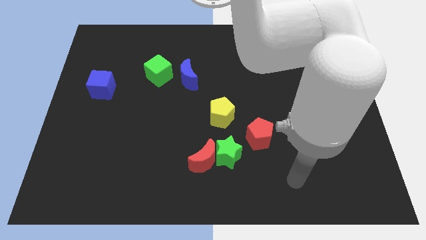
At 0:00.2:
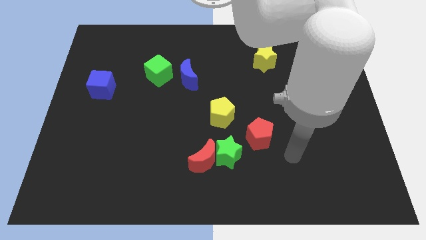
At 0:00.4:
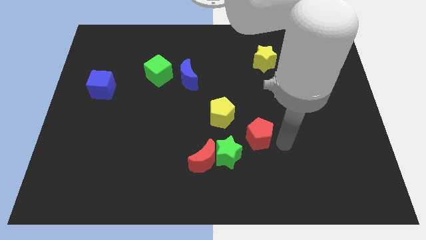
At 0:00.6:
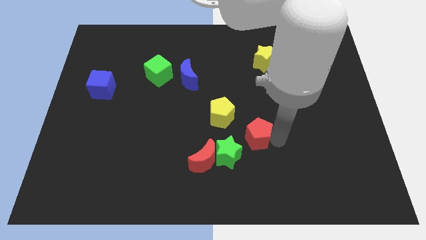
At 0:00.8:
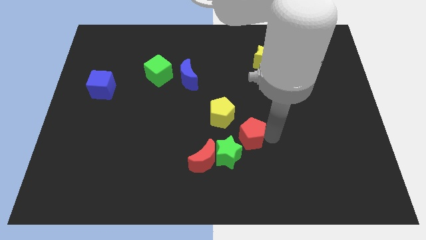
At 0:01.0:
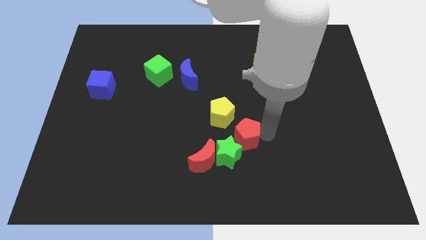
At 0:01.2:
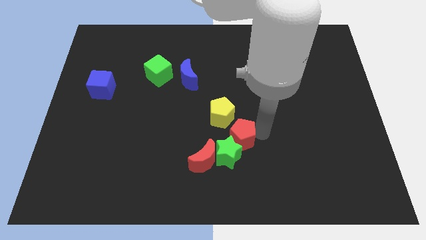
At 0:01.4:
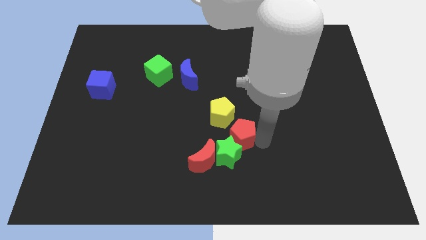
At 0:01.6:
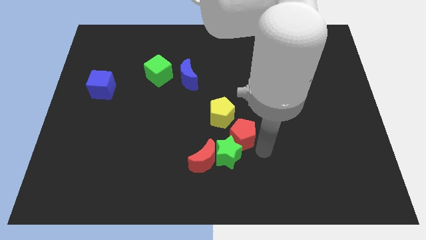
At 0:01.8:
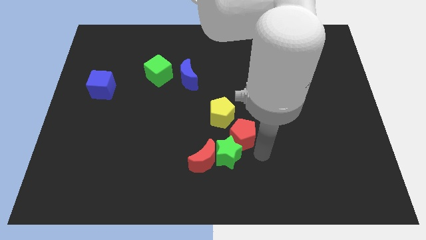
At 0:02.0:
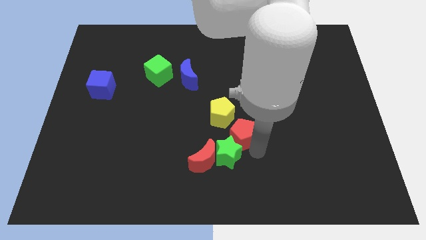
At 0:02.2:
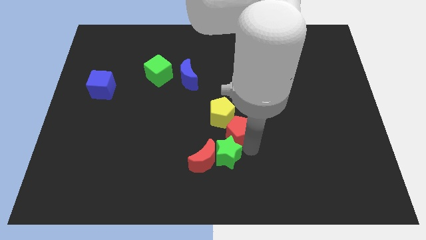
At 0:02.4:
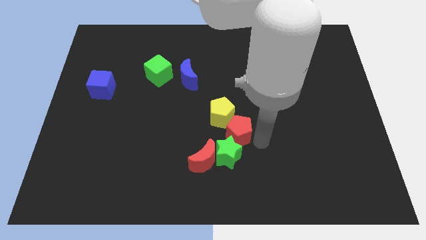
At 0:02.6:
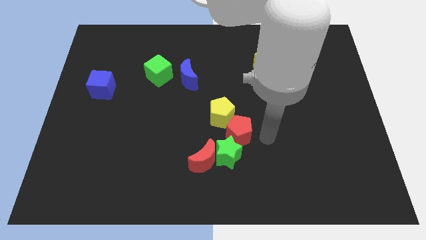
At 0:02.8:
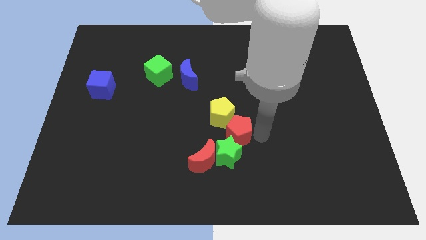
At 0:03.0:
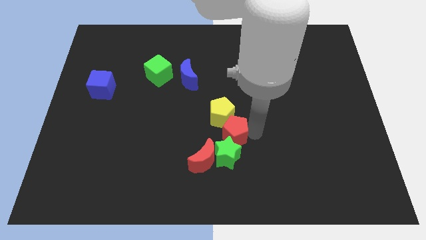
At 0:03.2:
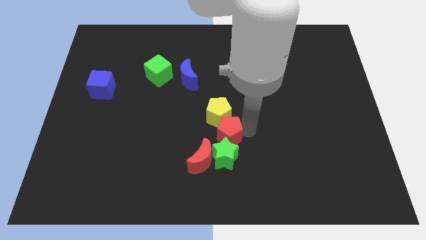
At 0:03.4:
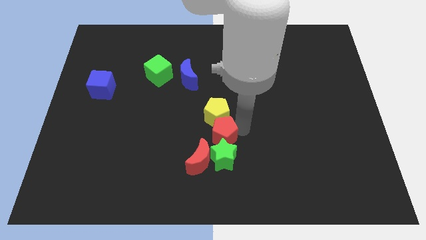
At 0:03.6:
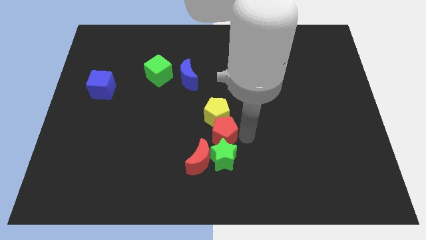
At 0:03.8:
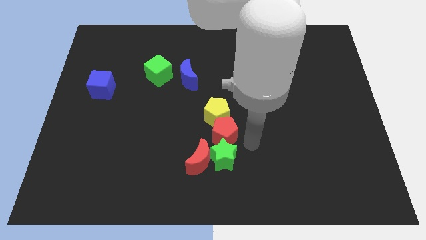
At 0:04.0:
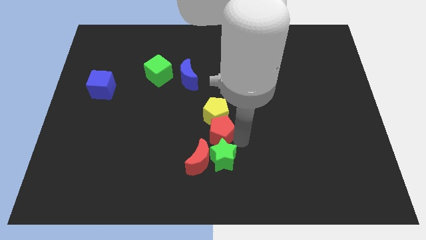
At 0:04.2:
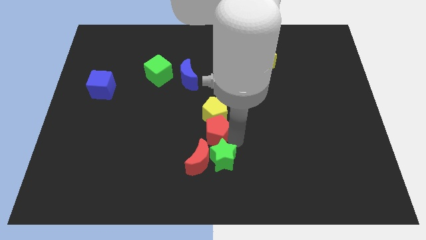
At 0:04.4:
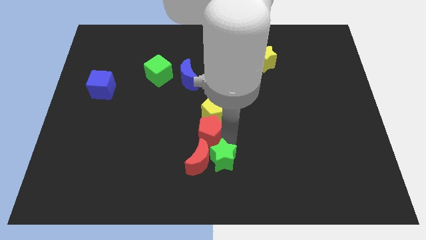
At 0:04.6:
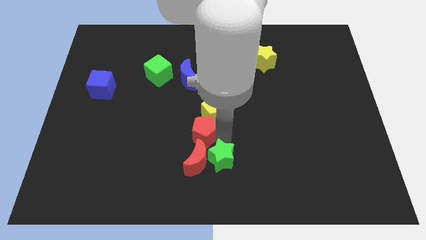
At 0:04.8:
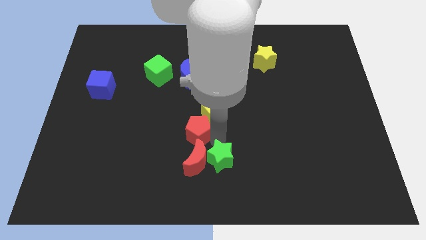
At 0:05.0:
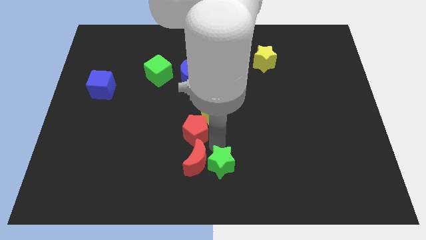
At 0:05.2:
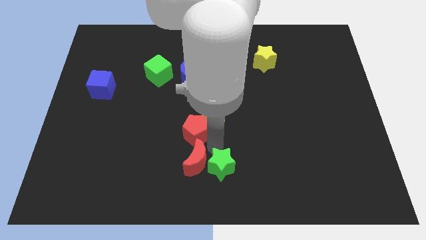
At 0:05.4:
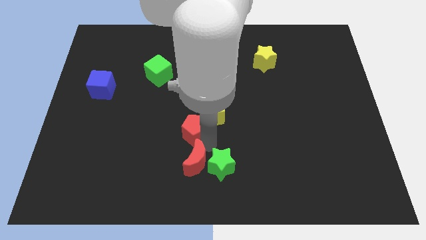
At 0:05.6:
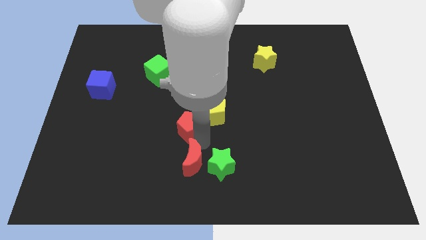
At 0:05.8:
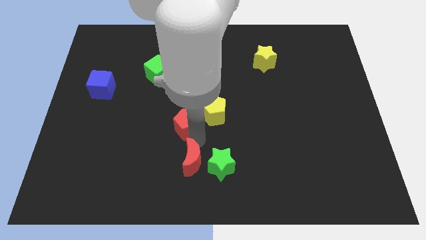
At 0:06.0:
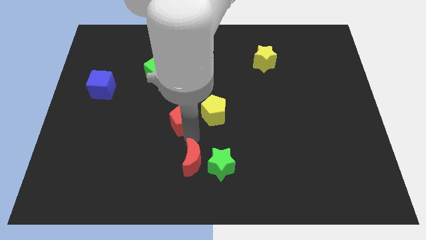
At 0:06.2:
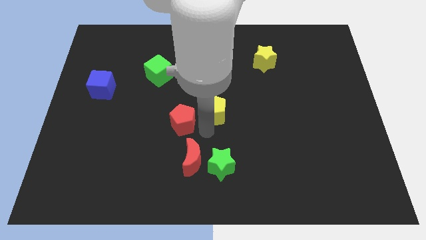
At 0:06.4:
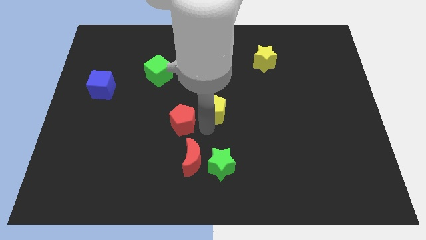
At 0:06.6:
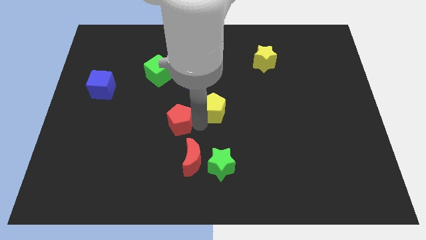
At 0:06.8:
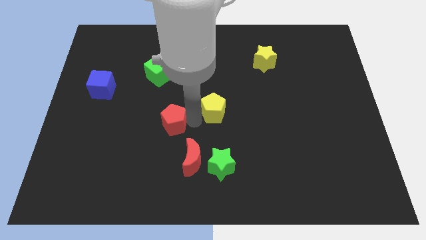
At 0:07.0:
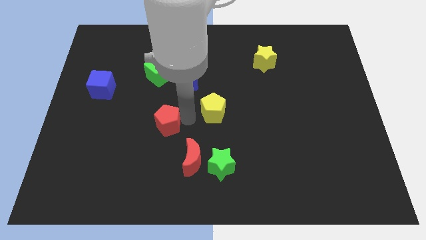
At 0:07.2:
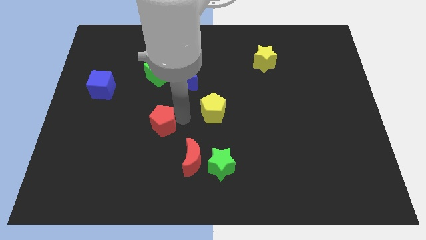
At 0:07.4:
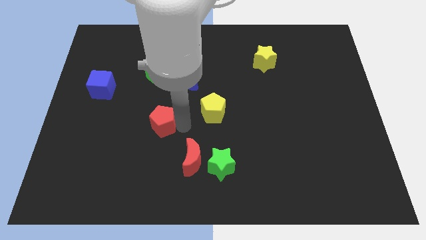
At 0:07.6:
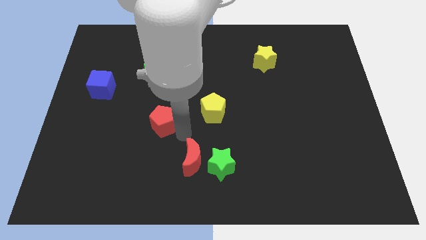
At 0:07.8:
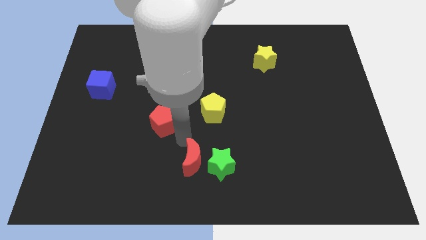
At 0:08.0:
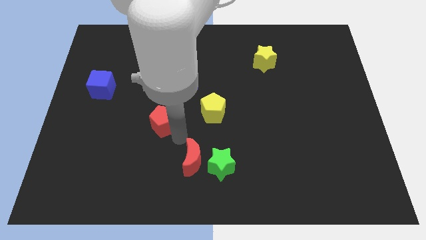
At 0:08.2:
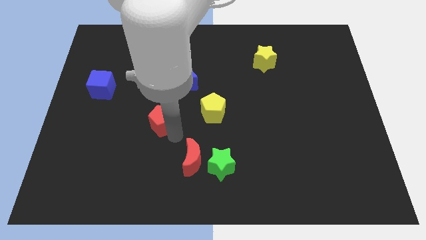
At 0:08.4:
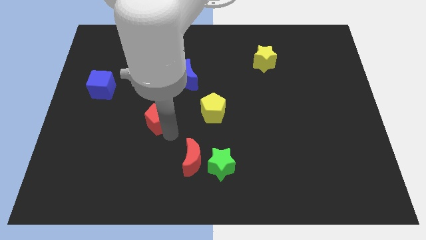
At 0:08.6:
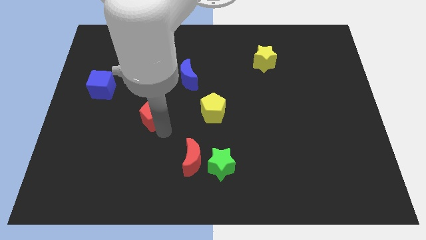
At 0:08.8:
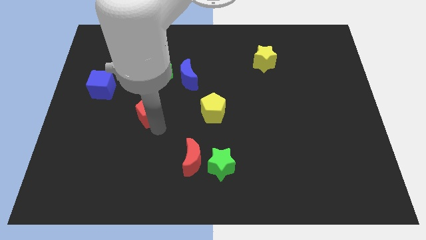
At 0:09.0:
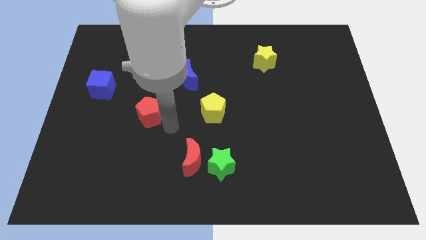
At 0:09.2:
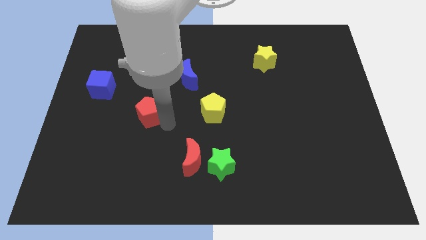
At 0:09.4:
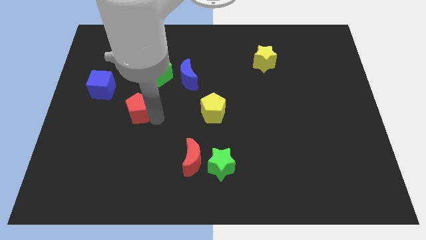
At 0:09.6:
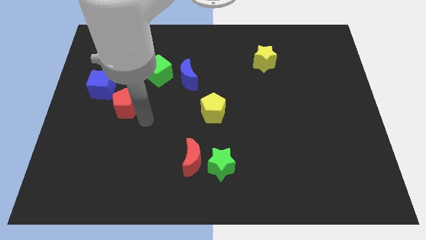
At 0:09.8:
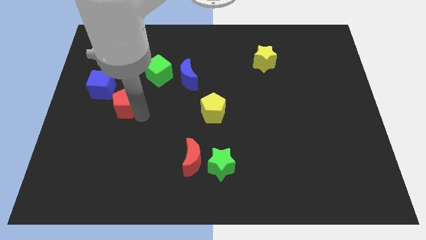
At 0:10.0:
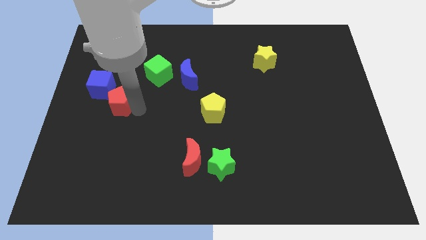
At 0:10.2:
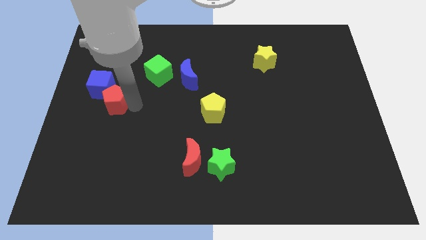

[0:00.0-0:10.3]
move the red pentagon next to the blue cube

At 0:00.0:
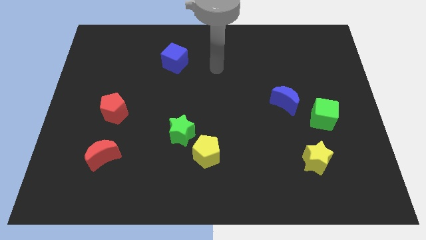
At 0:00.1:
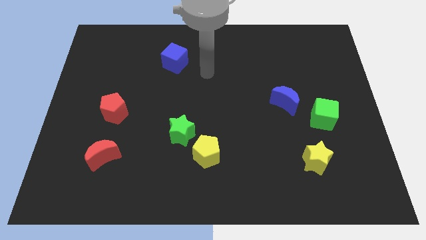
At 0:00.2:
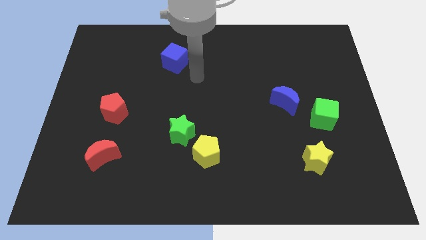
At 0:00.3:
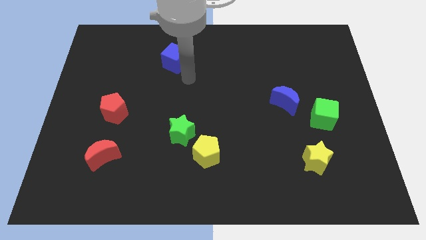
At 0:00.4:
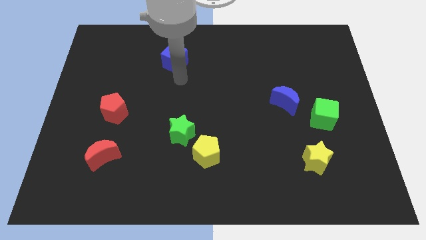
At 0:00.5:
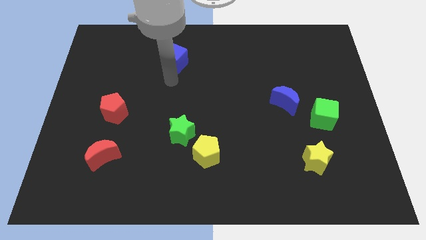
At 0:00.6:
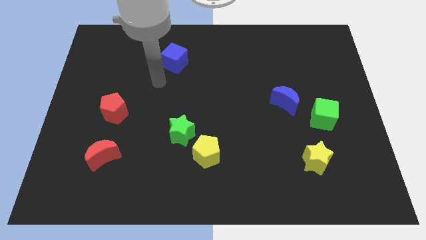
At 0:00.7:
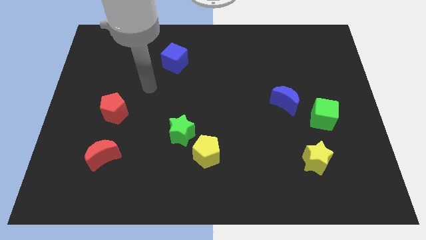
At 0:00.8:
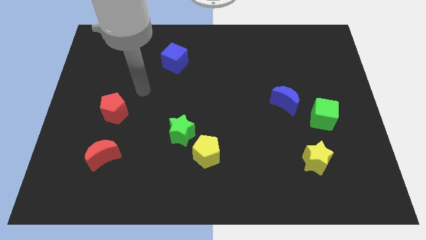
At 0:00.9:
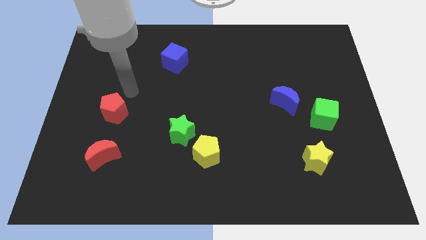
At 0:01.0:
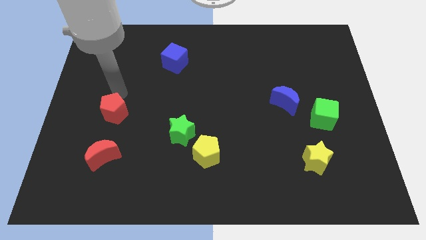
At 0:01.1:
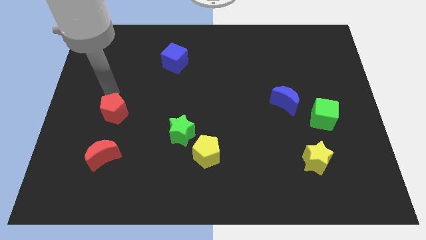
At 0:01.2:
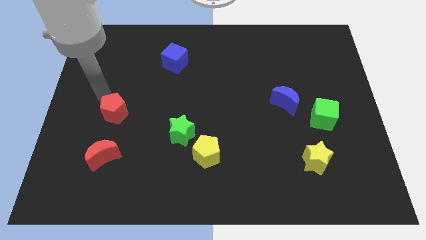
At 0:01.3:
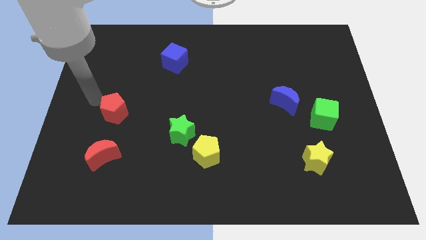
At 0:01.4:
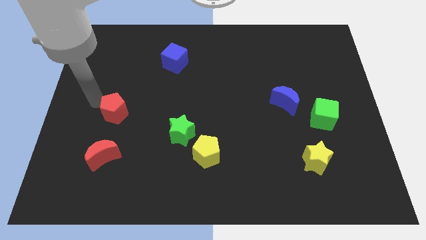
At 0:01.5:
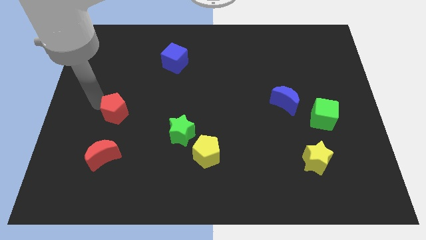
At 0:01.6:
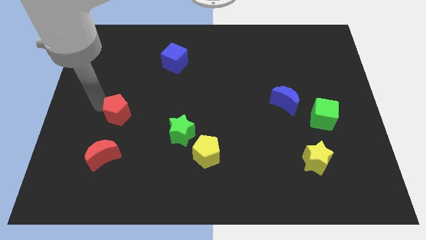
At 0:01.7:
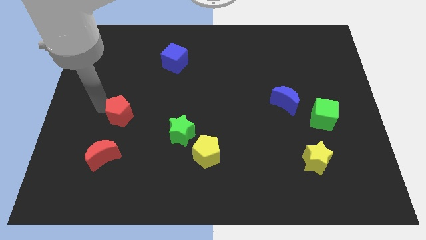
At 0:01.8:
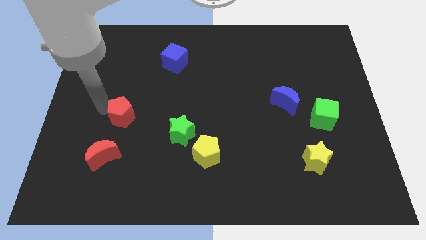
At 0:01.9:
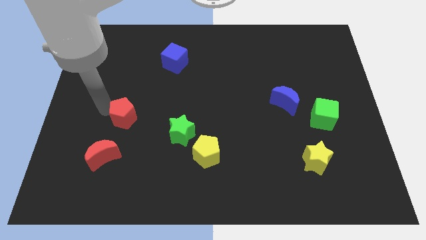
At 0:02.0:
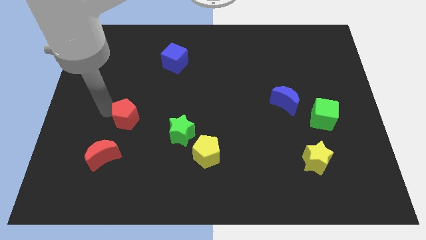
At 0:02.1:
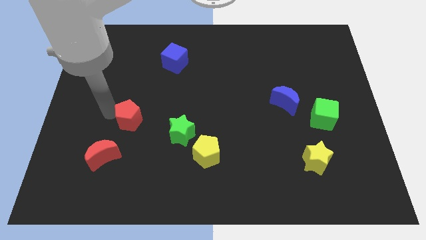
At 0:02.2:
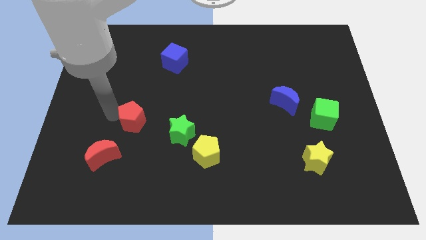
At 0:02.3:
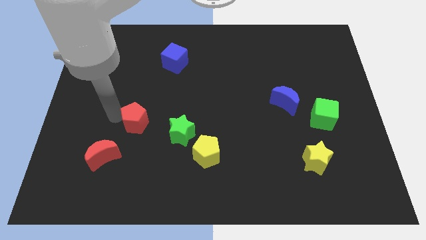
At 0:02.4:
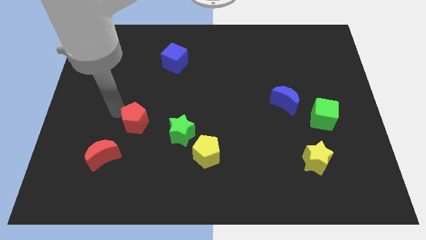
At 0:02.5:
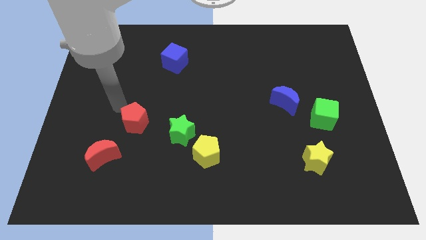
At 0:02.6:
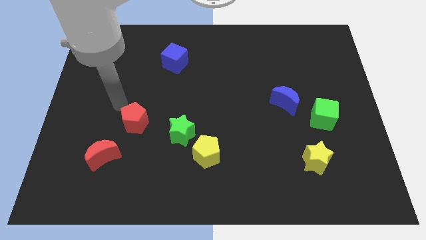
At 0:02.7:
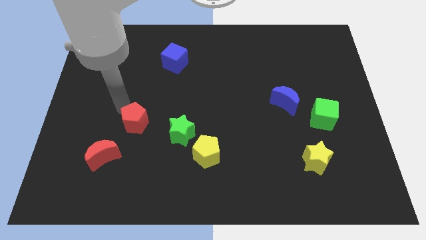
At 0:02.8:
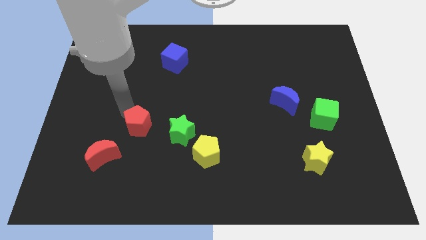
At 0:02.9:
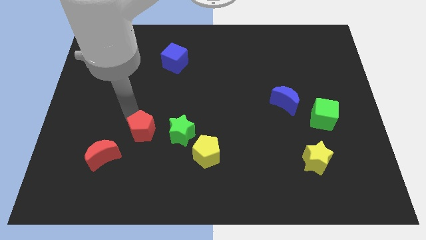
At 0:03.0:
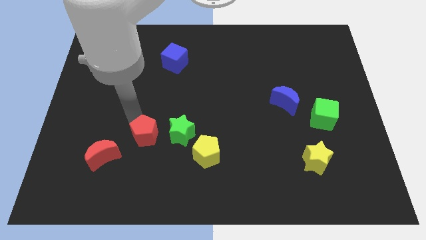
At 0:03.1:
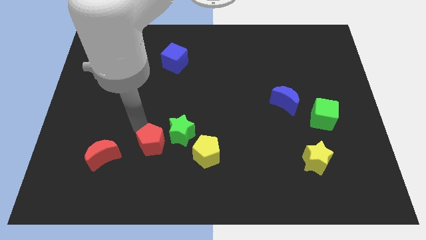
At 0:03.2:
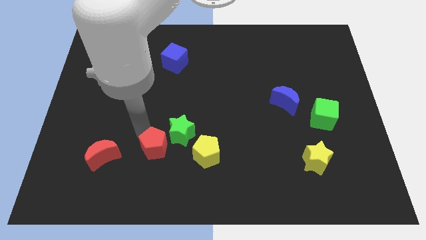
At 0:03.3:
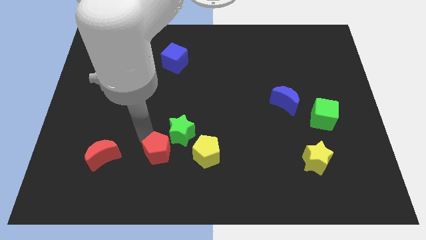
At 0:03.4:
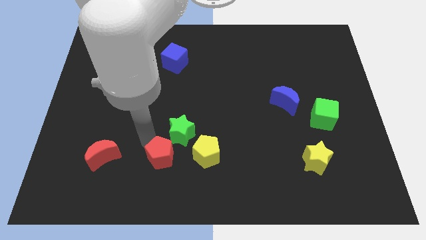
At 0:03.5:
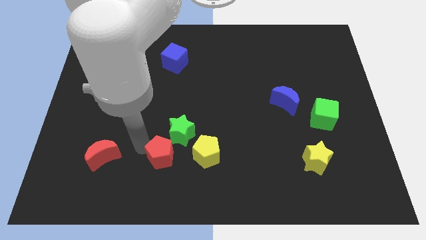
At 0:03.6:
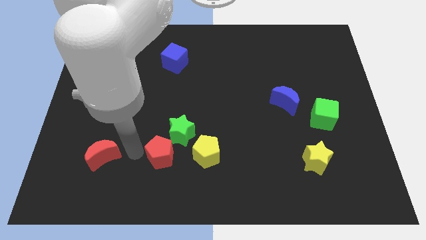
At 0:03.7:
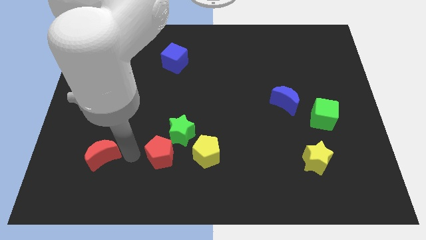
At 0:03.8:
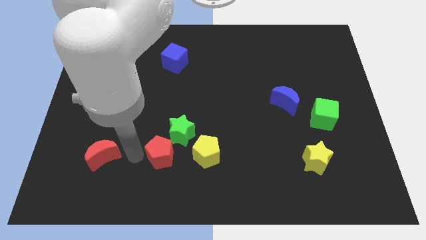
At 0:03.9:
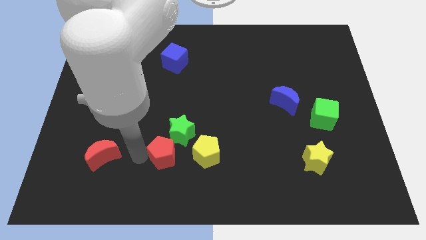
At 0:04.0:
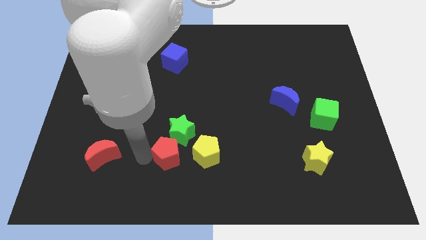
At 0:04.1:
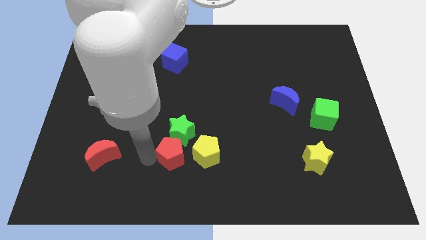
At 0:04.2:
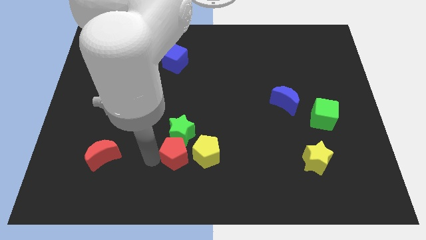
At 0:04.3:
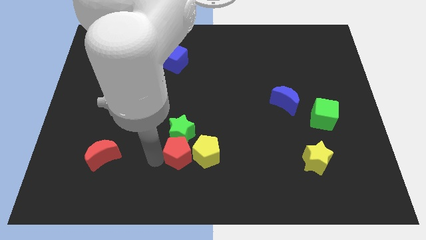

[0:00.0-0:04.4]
slide the red pentagon close to the yellow pentagon
